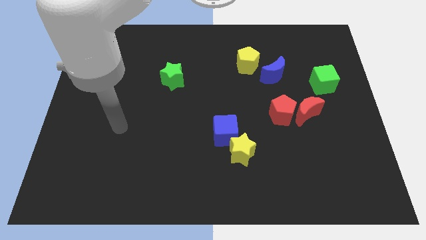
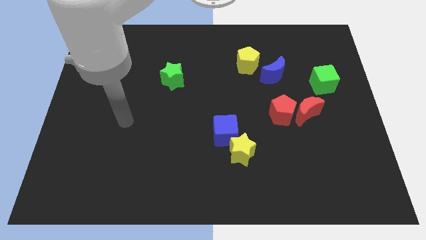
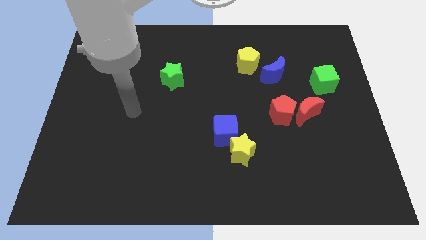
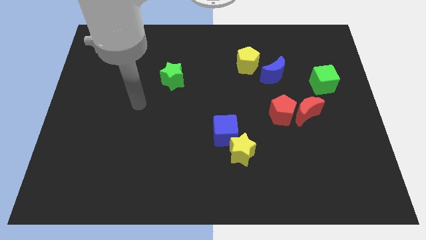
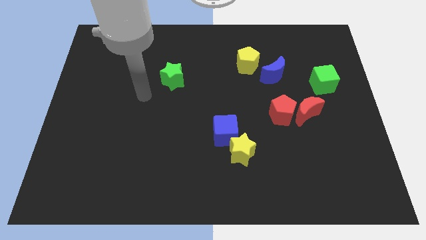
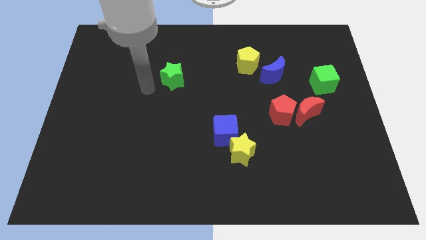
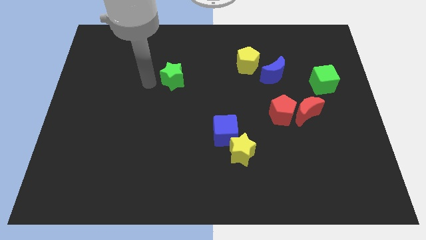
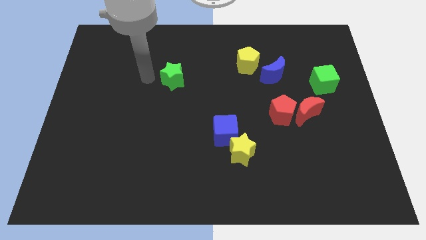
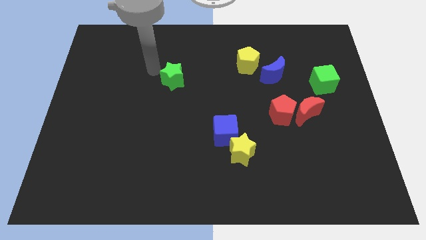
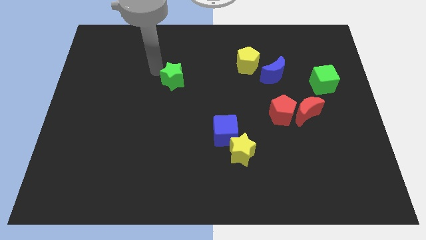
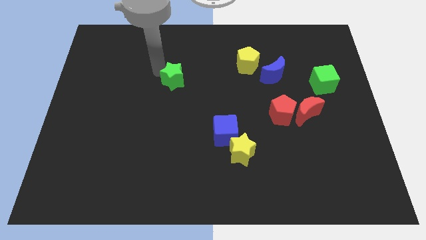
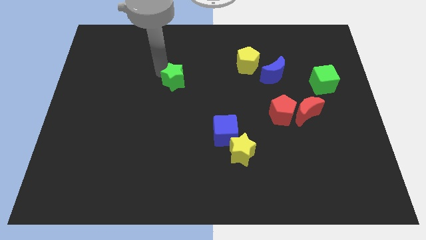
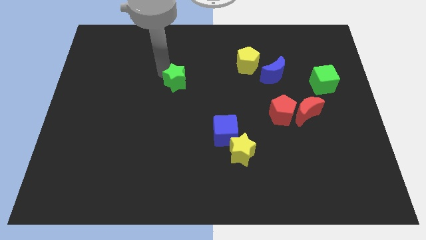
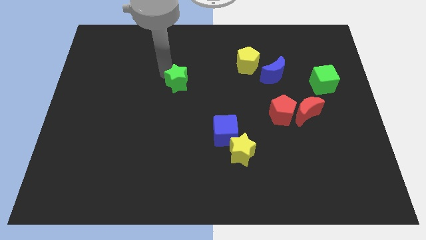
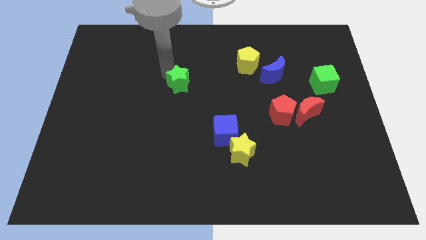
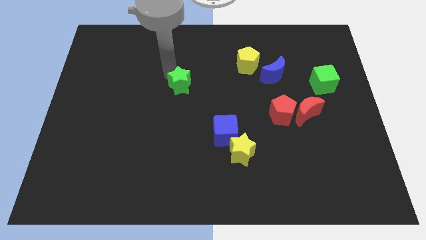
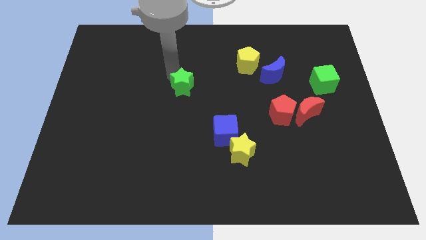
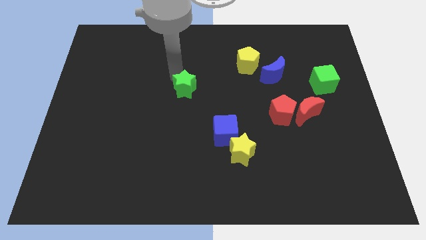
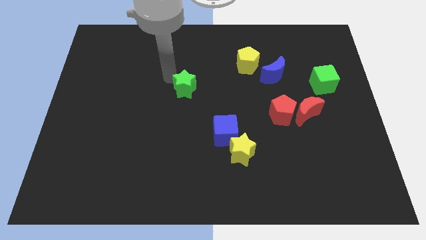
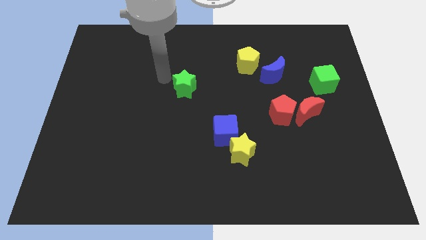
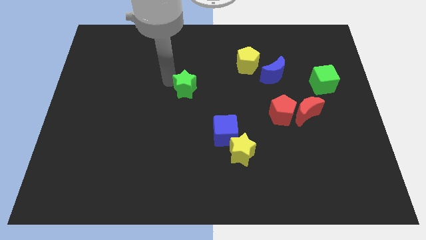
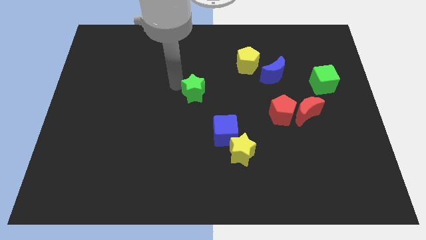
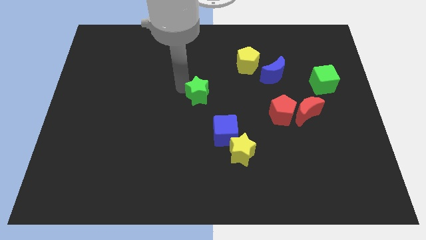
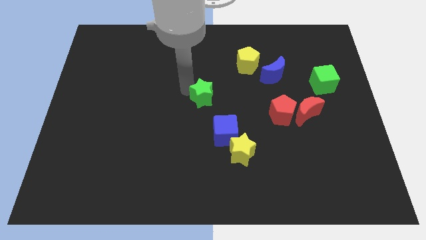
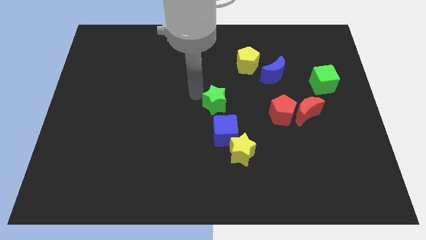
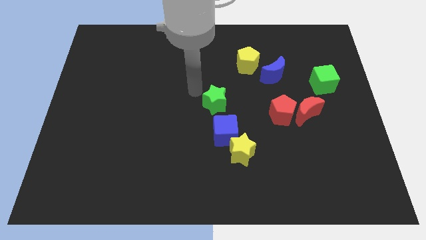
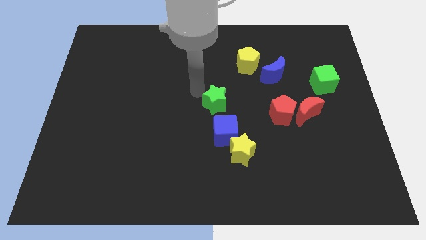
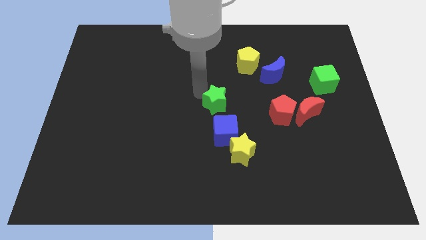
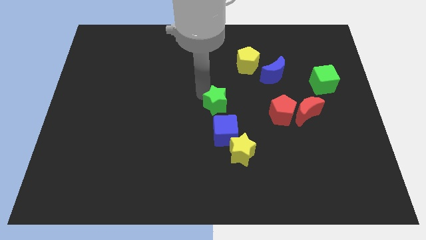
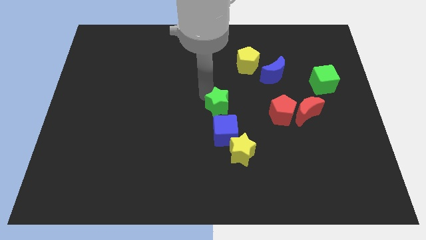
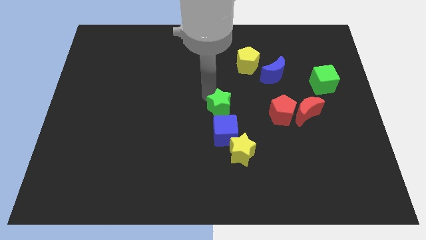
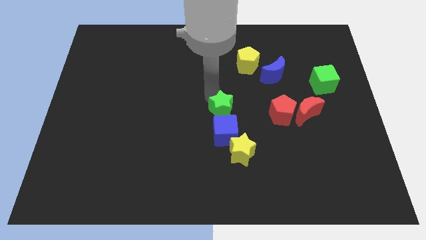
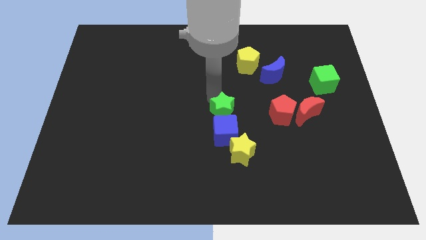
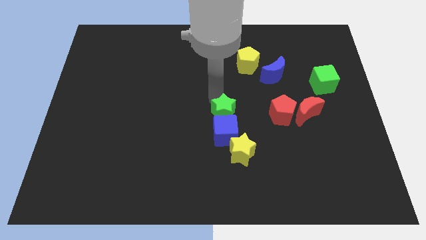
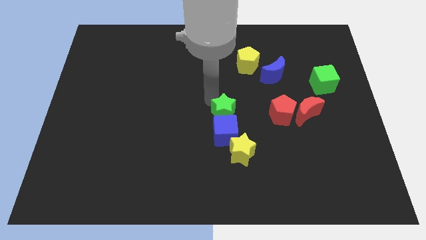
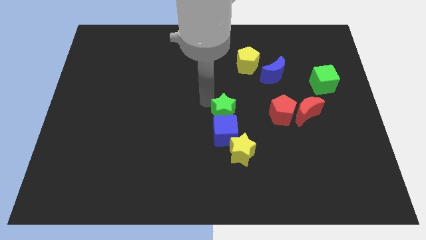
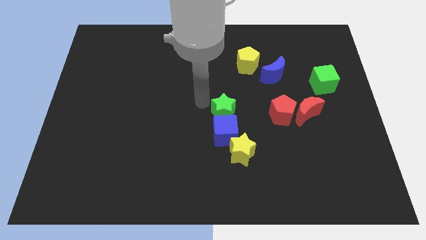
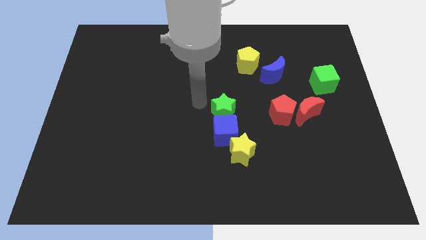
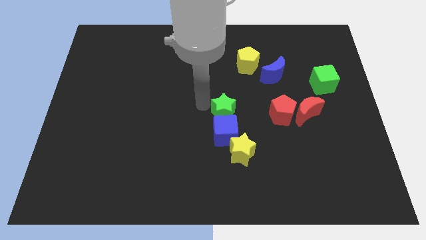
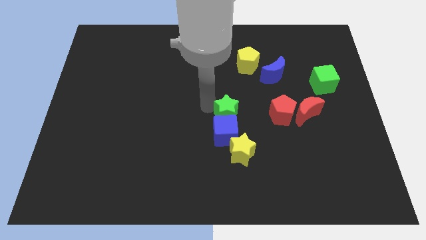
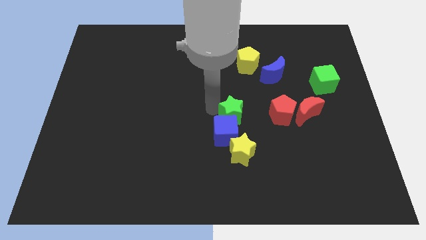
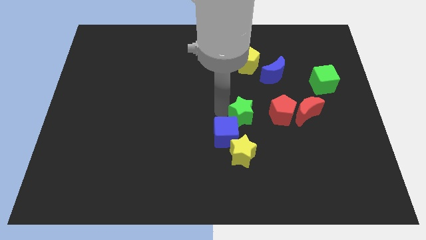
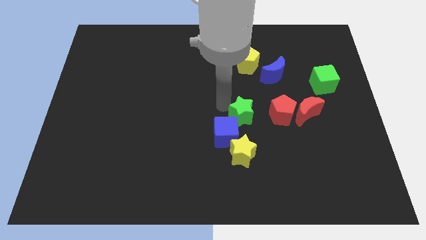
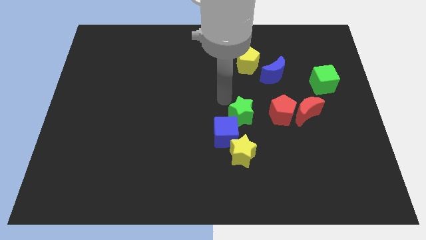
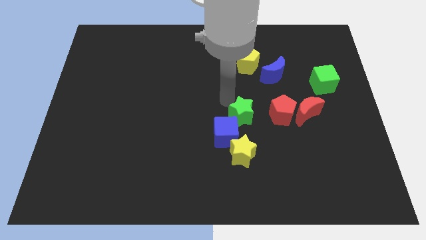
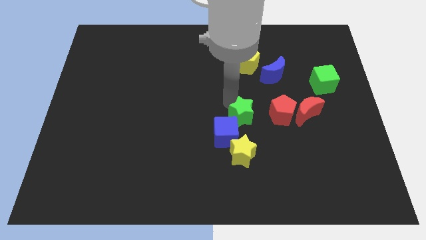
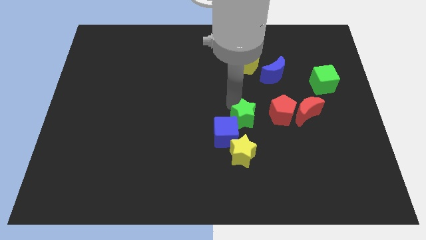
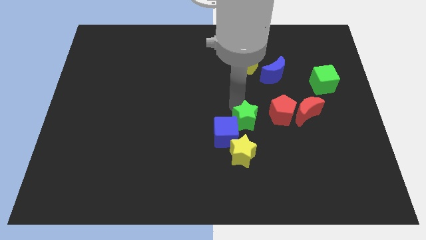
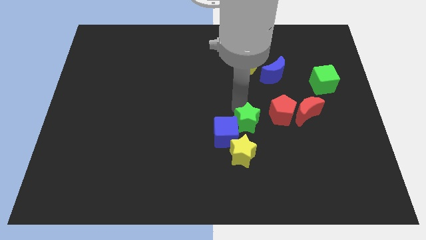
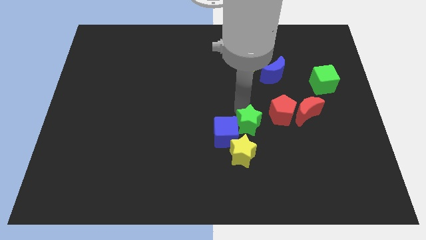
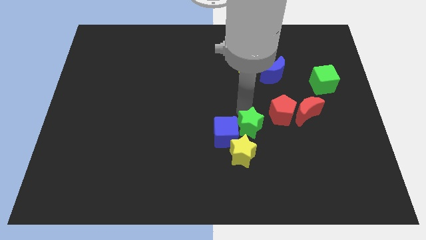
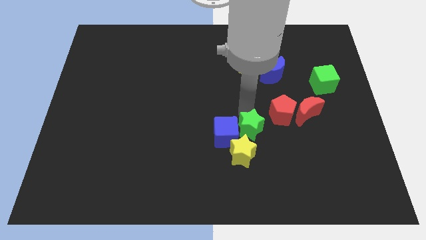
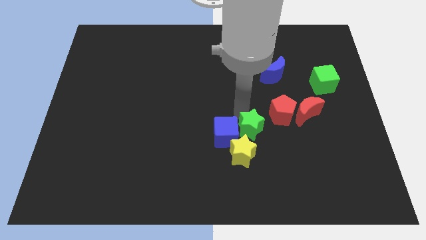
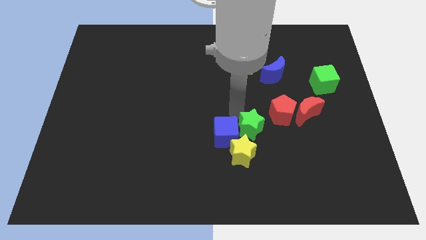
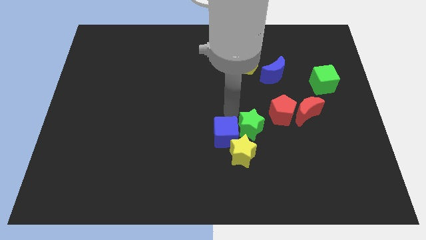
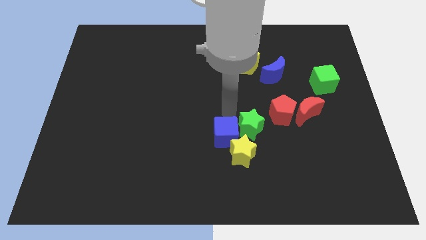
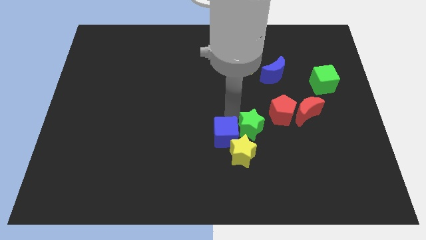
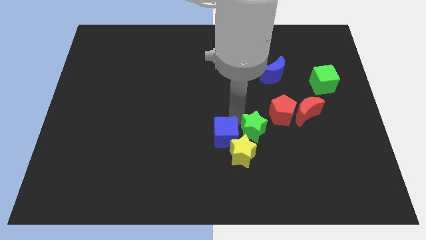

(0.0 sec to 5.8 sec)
slide the green star to the bottom right of the blue cube

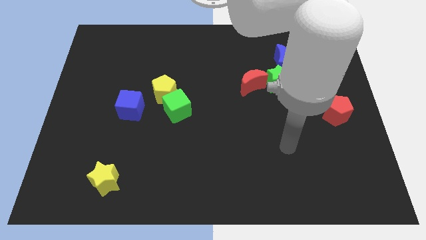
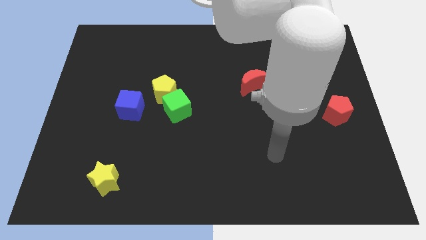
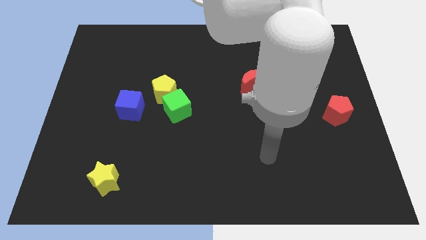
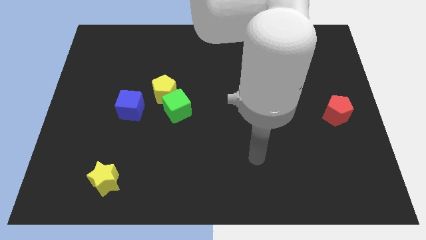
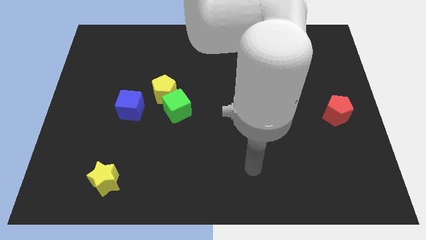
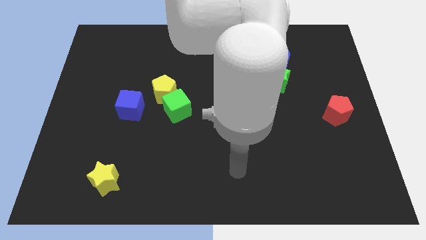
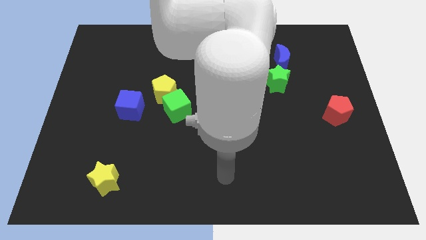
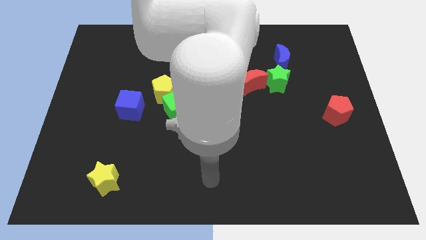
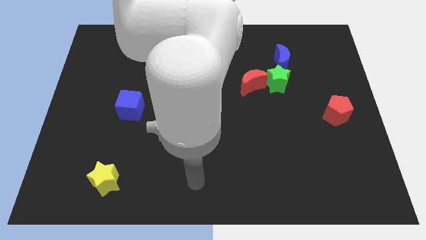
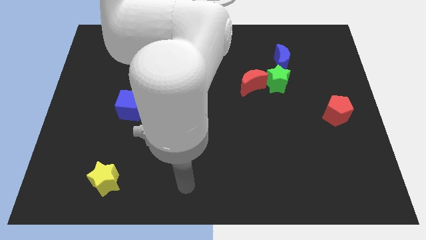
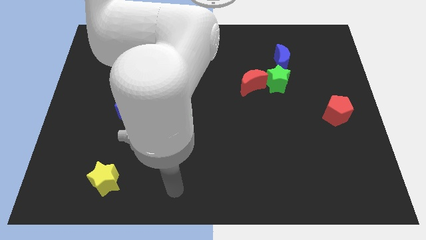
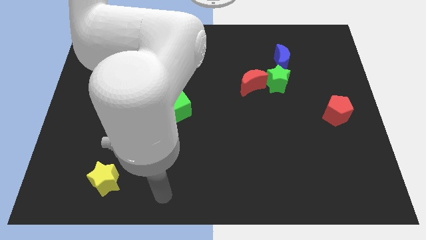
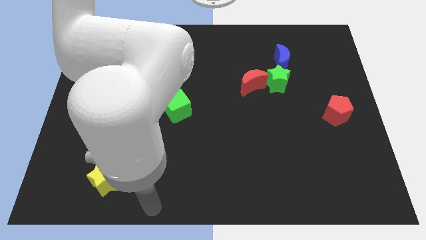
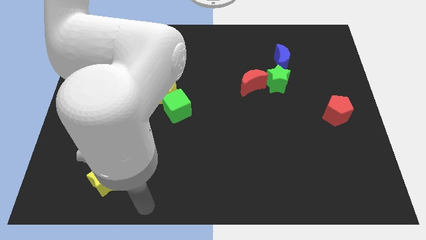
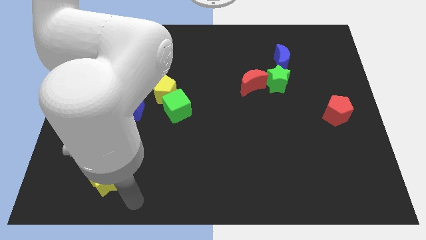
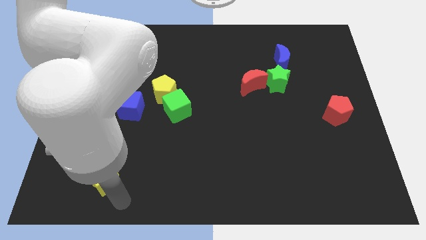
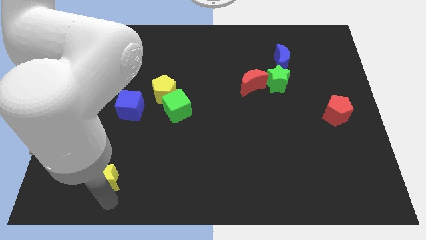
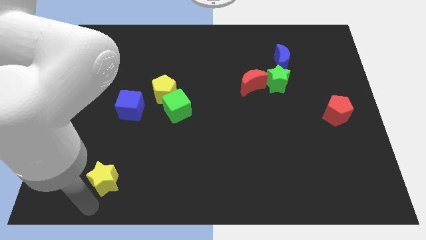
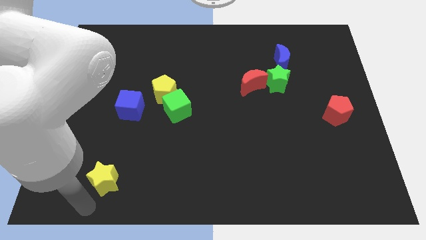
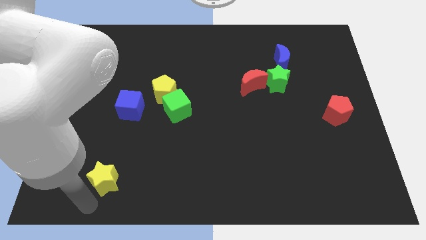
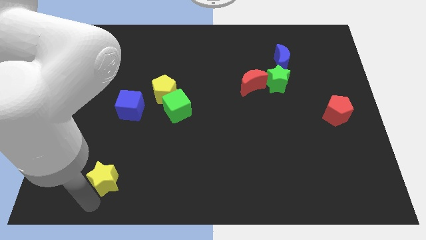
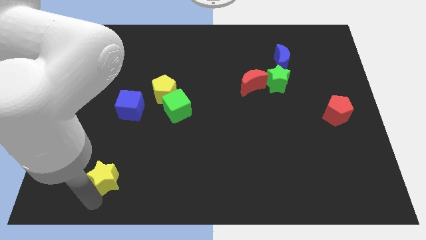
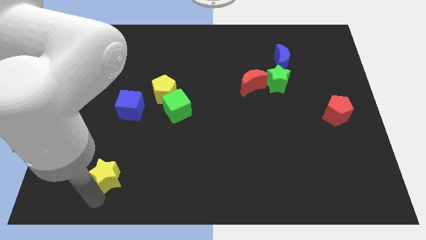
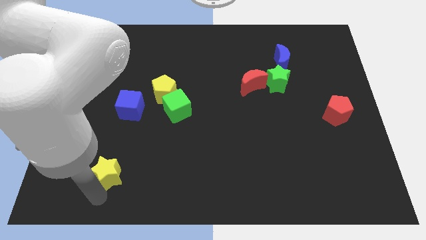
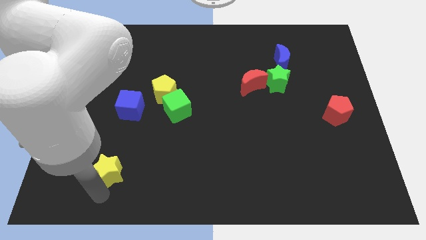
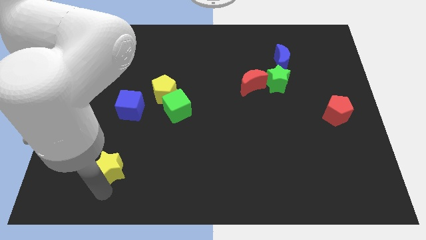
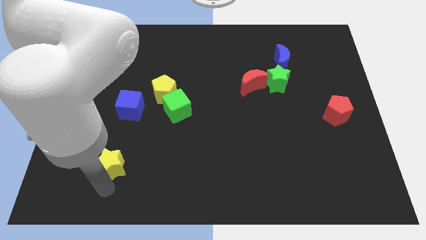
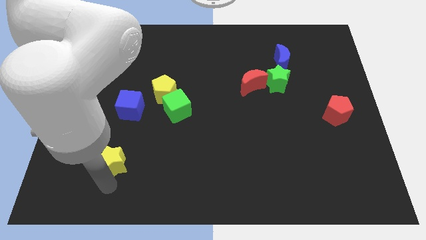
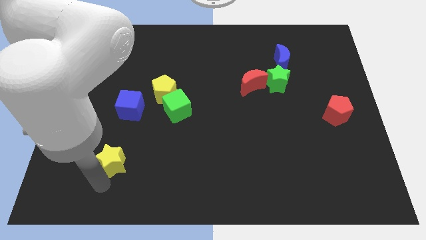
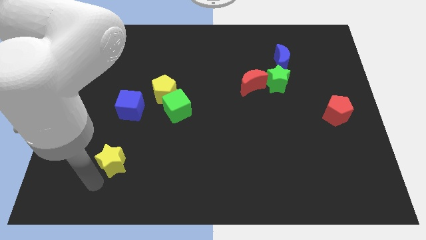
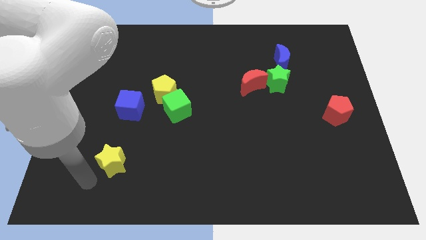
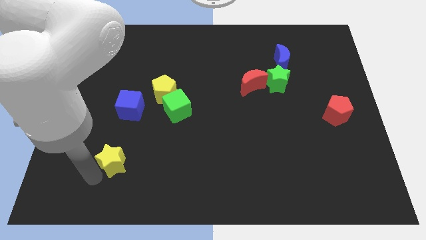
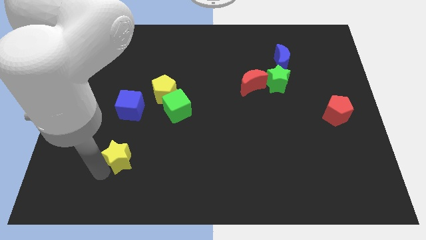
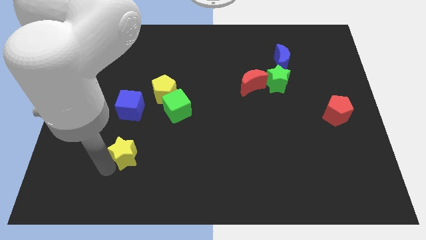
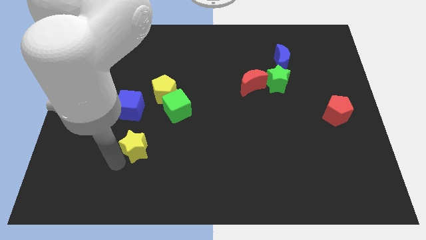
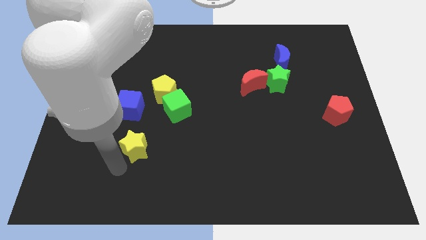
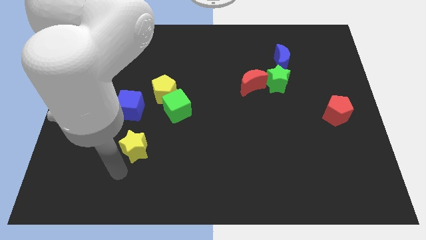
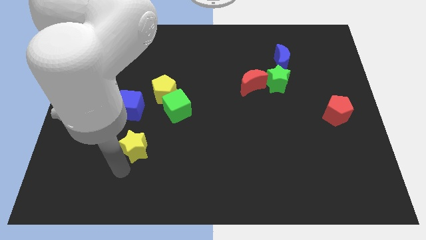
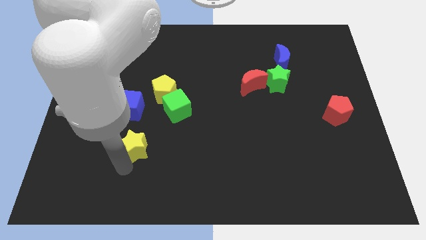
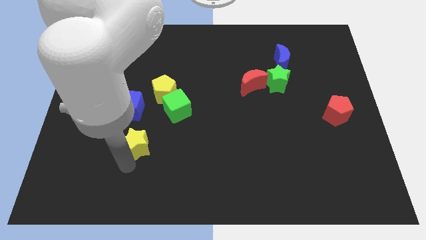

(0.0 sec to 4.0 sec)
push the yellow star diagonally down and to the left of the green cube
